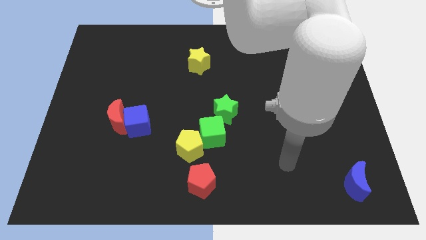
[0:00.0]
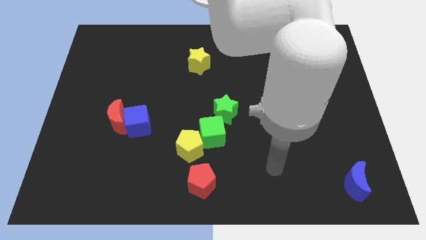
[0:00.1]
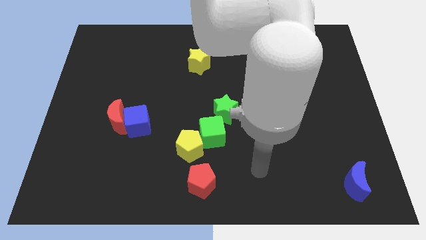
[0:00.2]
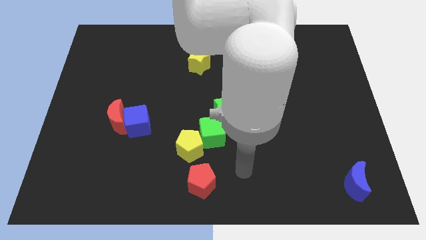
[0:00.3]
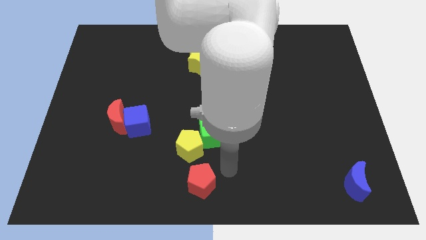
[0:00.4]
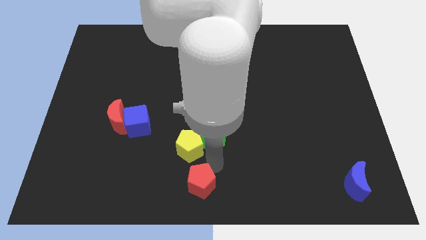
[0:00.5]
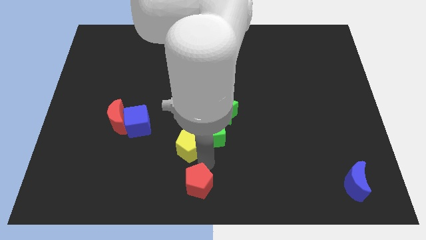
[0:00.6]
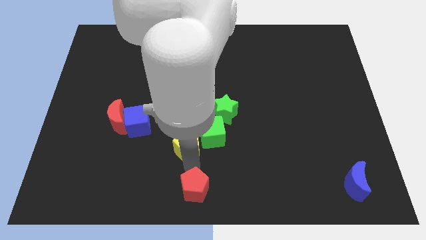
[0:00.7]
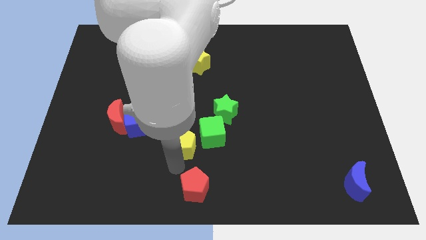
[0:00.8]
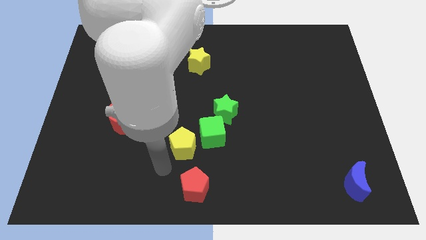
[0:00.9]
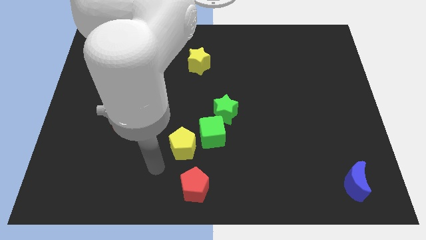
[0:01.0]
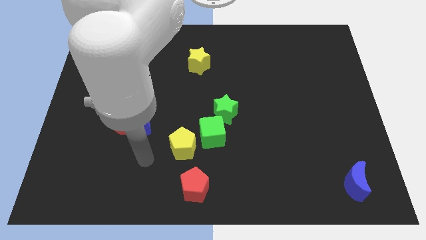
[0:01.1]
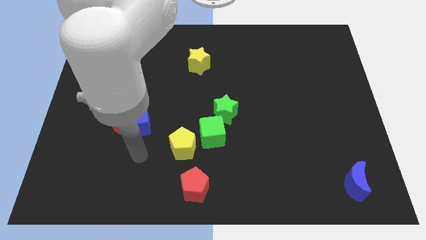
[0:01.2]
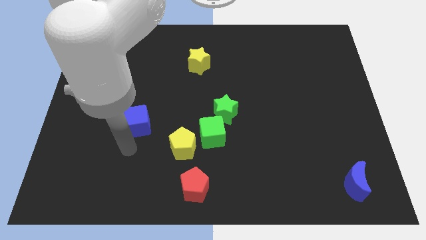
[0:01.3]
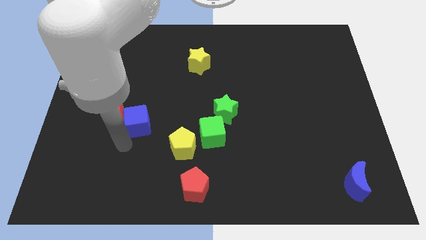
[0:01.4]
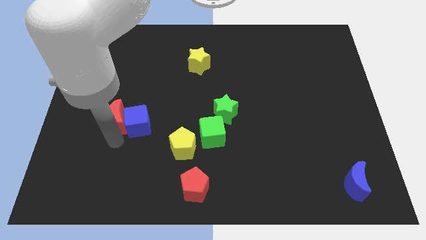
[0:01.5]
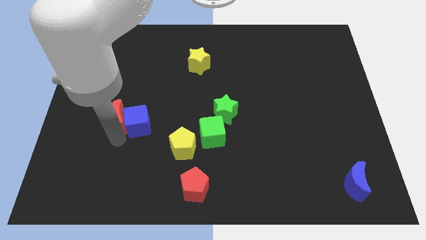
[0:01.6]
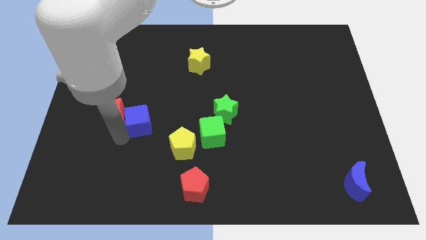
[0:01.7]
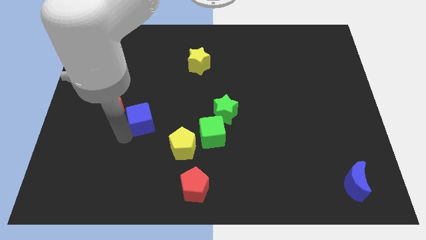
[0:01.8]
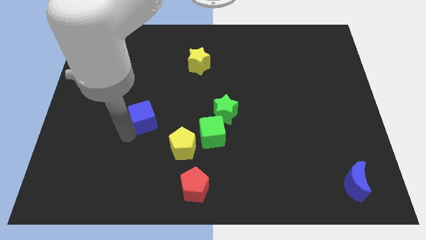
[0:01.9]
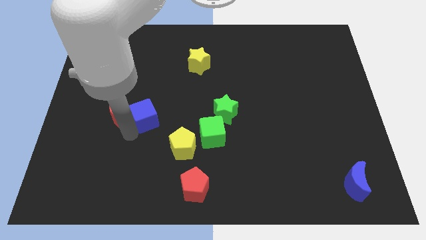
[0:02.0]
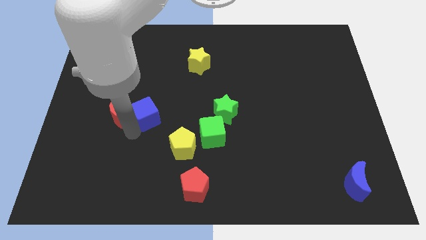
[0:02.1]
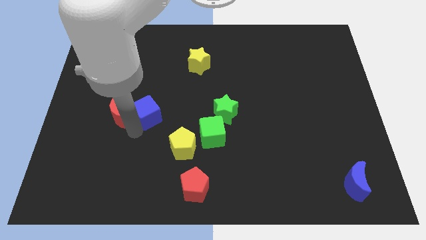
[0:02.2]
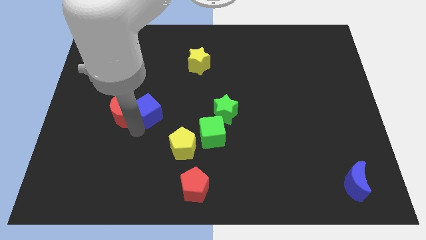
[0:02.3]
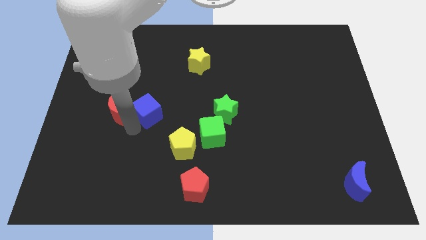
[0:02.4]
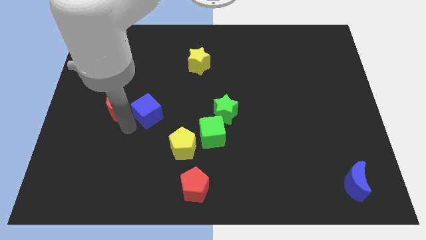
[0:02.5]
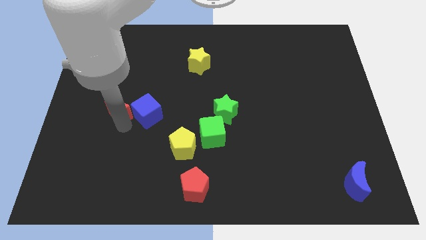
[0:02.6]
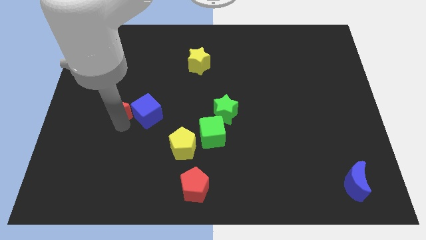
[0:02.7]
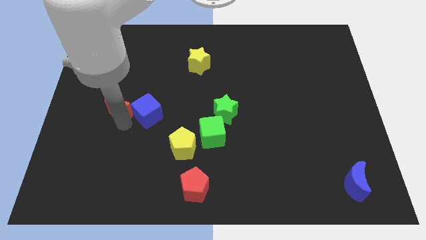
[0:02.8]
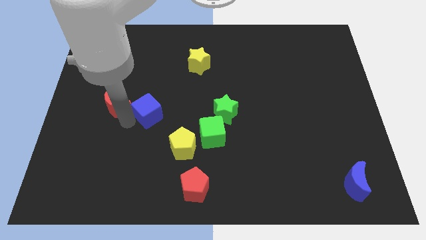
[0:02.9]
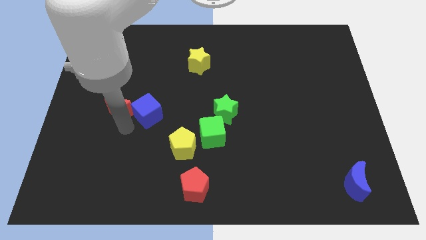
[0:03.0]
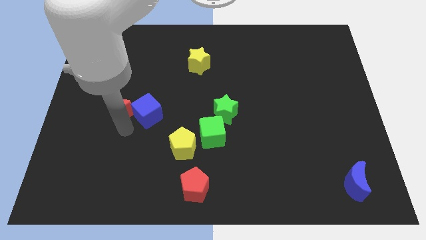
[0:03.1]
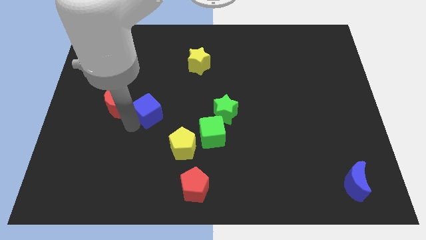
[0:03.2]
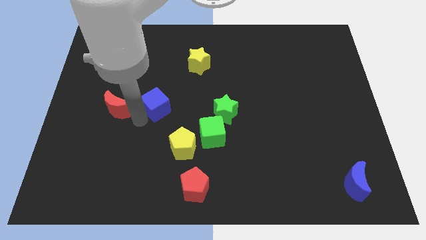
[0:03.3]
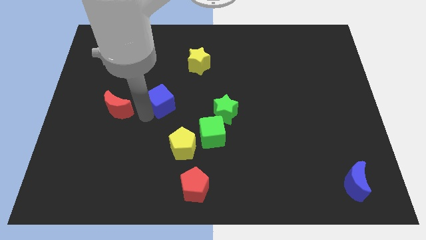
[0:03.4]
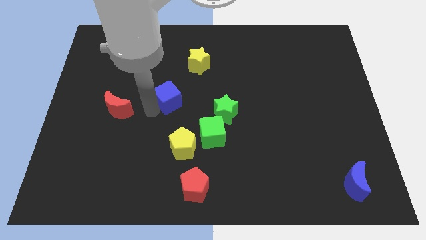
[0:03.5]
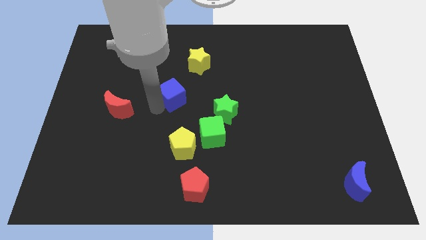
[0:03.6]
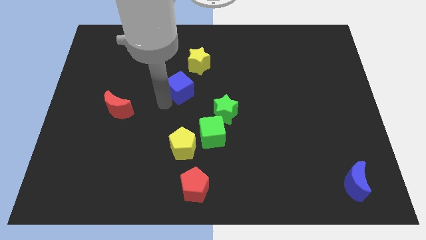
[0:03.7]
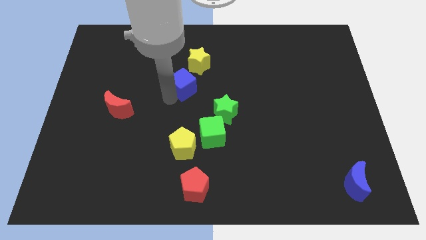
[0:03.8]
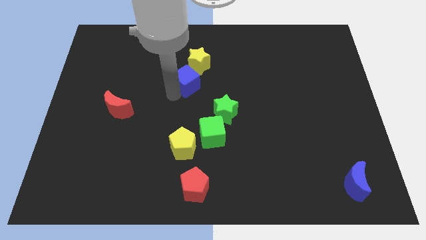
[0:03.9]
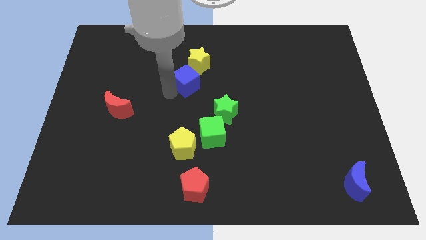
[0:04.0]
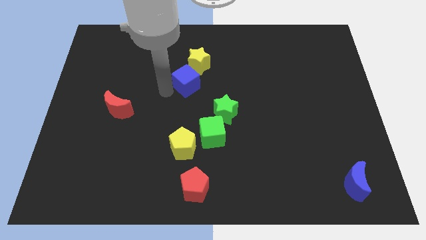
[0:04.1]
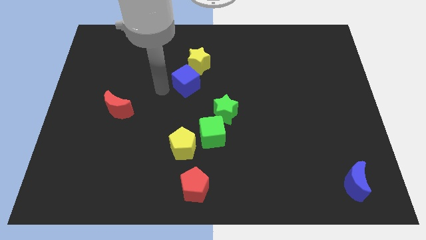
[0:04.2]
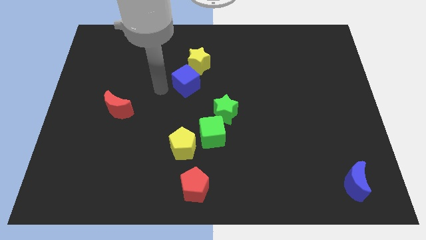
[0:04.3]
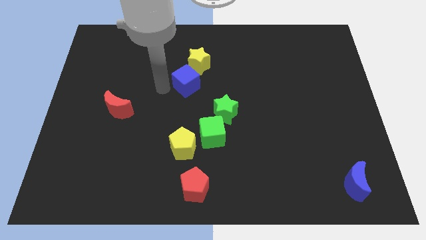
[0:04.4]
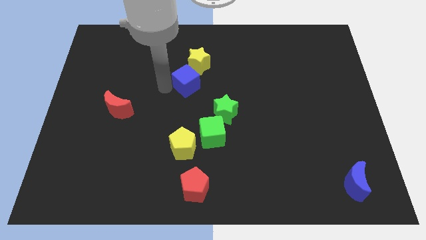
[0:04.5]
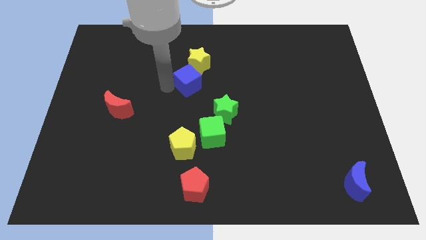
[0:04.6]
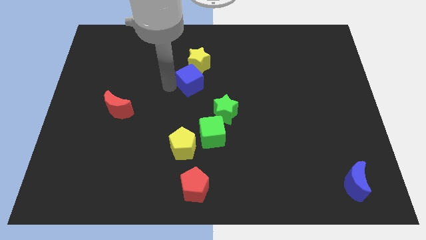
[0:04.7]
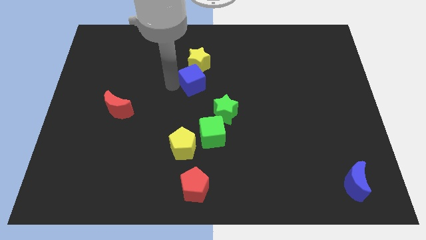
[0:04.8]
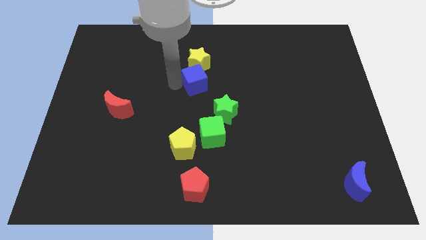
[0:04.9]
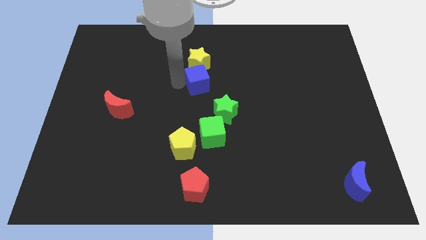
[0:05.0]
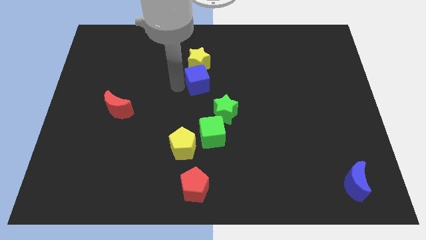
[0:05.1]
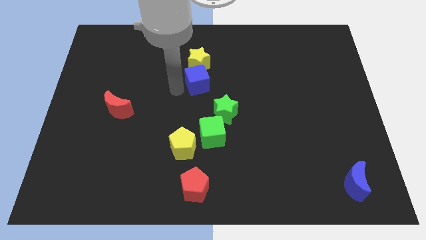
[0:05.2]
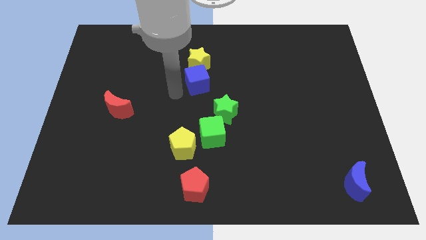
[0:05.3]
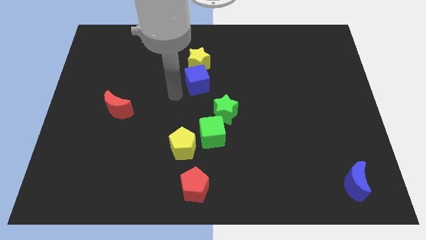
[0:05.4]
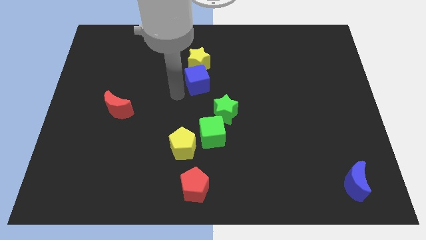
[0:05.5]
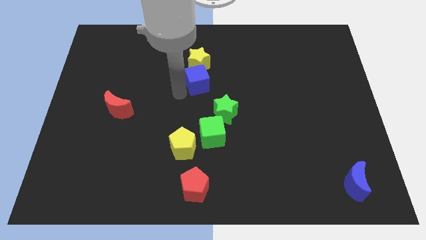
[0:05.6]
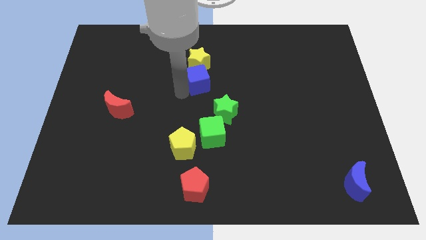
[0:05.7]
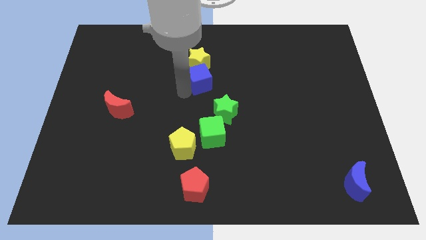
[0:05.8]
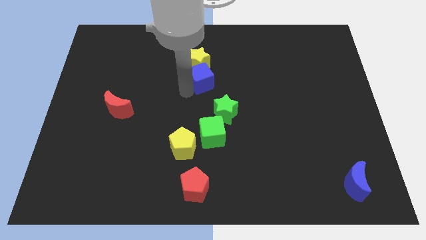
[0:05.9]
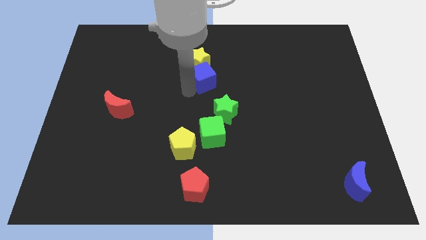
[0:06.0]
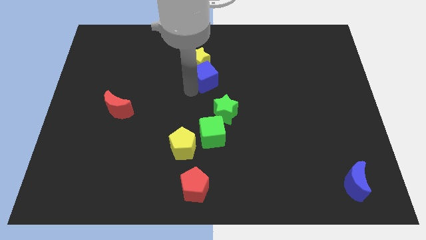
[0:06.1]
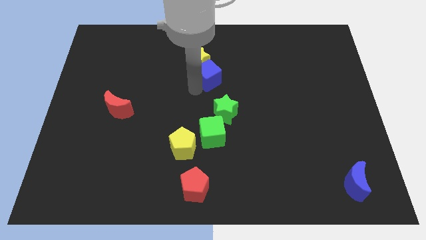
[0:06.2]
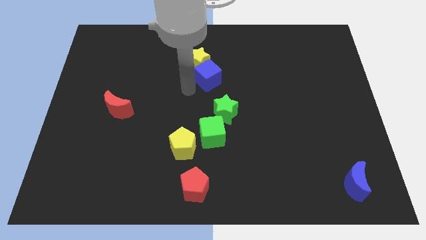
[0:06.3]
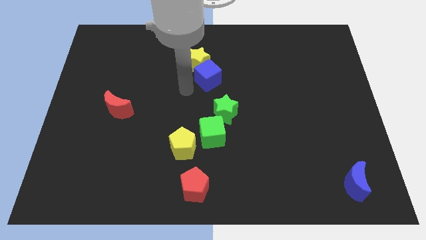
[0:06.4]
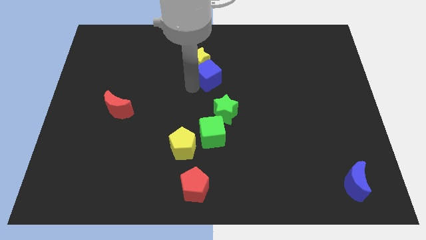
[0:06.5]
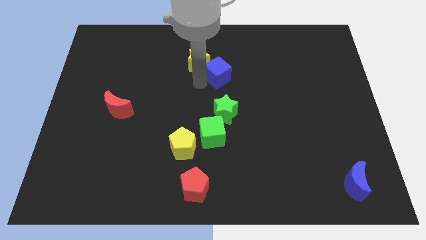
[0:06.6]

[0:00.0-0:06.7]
slide the blue cube right of the yellow star

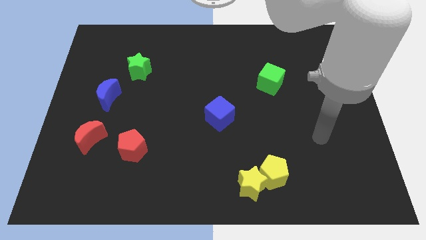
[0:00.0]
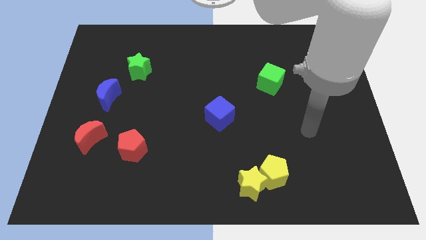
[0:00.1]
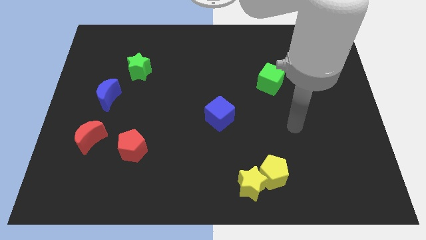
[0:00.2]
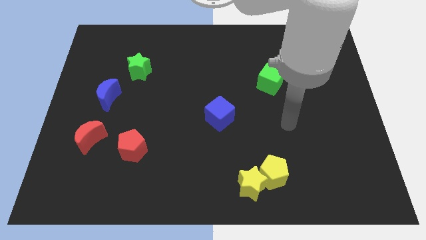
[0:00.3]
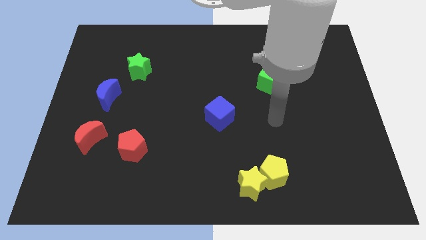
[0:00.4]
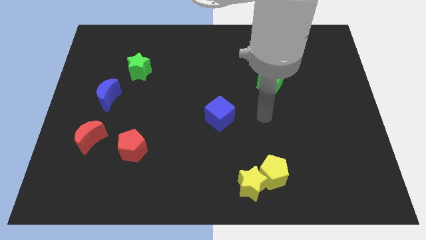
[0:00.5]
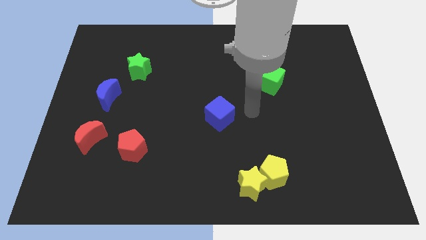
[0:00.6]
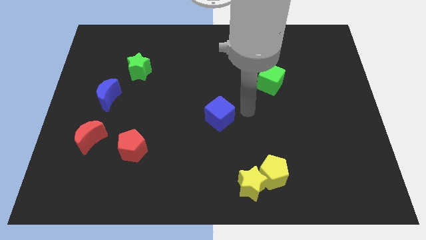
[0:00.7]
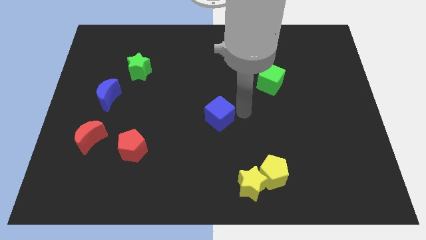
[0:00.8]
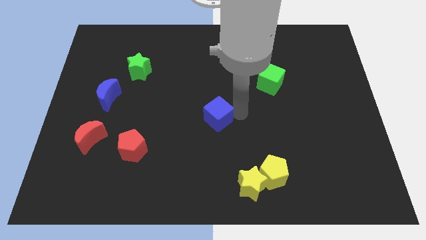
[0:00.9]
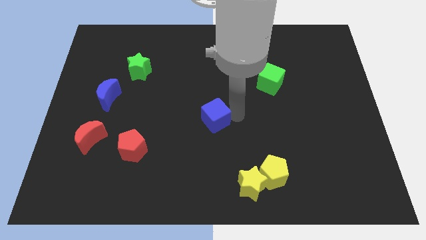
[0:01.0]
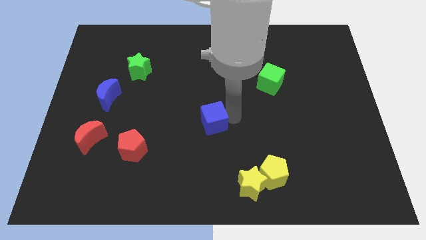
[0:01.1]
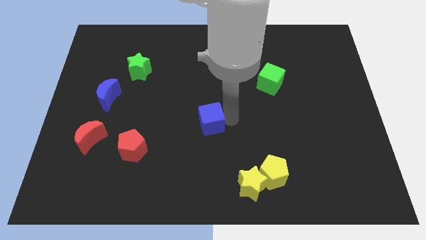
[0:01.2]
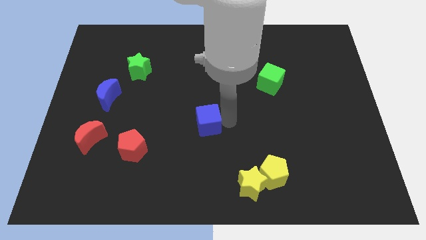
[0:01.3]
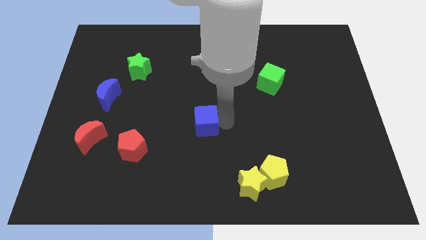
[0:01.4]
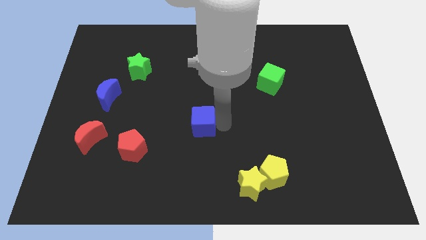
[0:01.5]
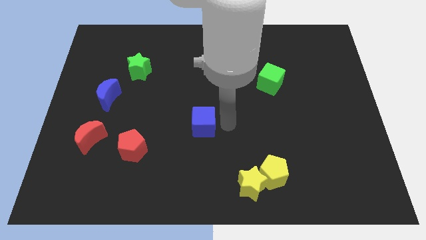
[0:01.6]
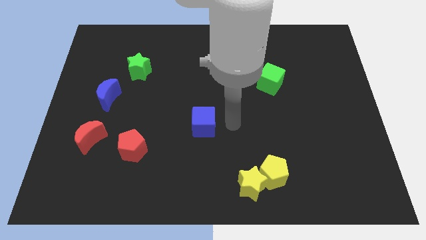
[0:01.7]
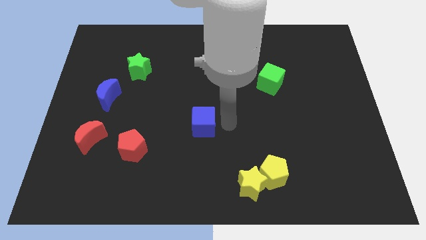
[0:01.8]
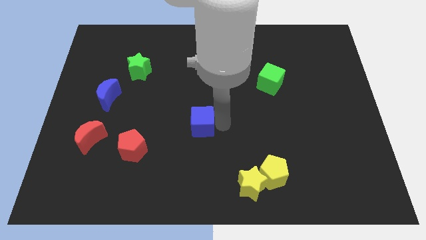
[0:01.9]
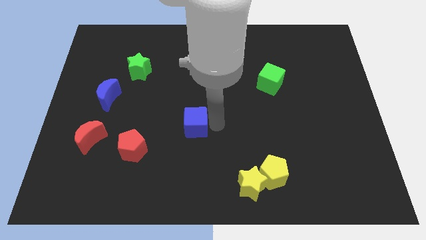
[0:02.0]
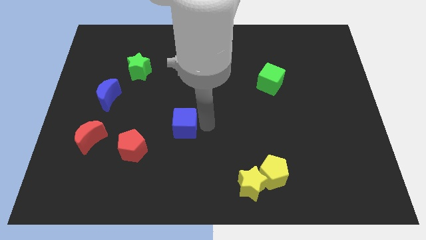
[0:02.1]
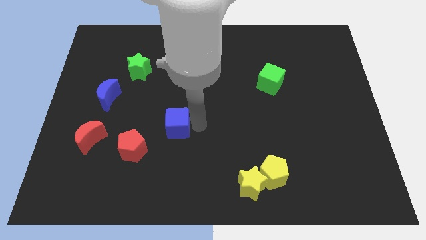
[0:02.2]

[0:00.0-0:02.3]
put the blue cube diagonally up and to the right of the red pentagon
